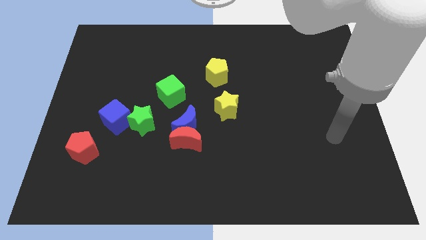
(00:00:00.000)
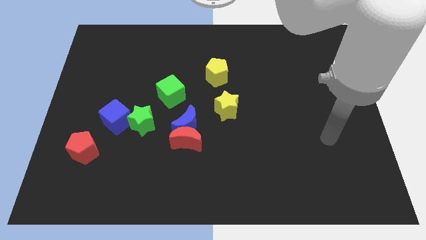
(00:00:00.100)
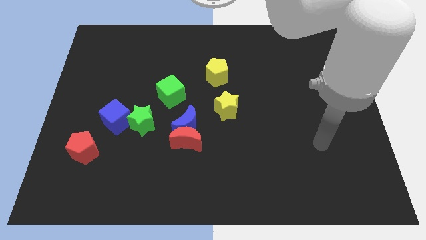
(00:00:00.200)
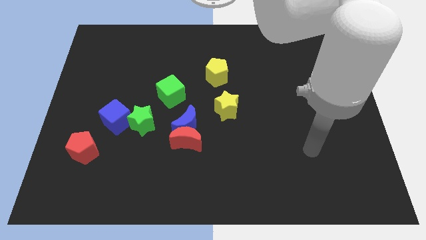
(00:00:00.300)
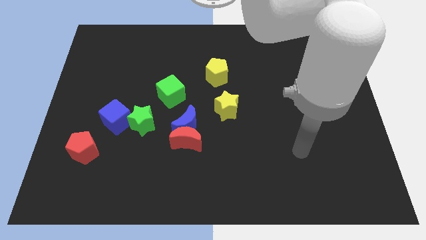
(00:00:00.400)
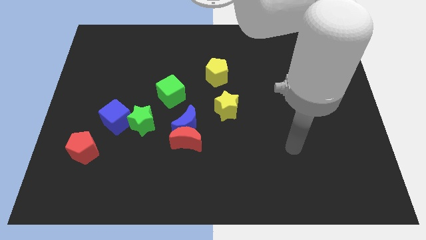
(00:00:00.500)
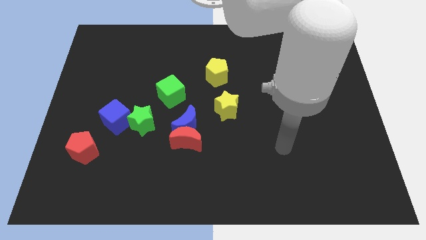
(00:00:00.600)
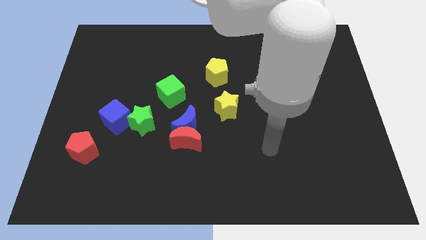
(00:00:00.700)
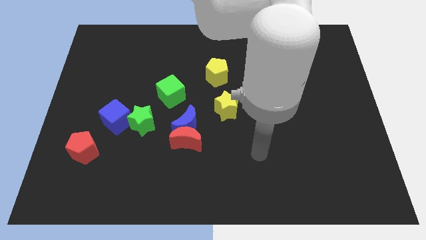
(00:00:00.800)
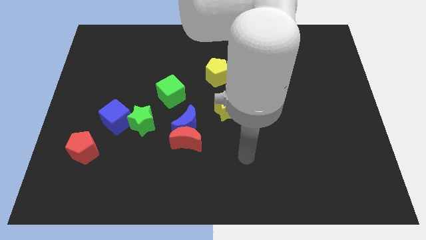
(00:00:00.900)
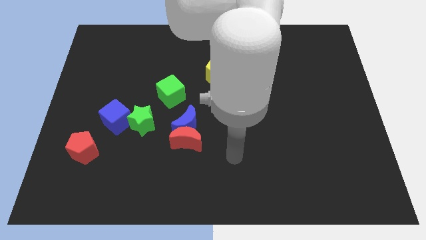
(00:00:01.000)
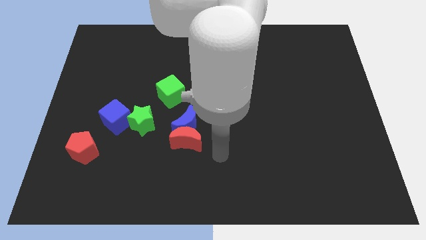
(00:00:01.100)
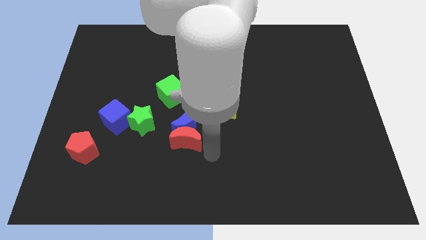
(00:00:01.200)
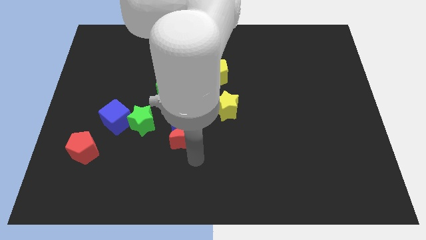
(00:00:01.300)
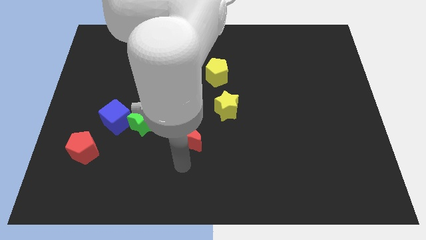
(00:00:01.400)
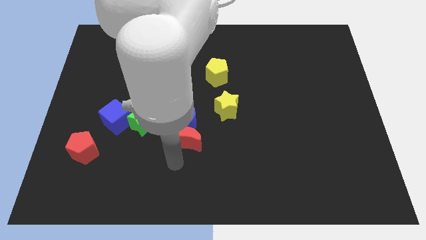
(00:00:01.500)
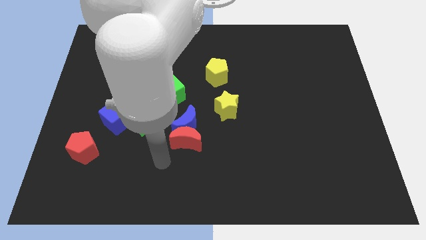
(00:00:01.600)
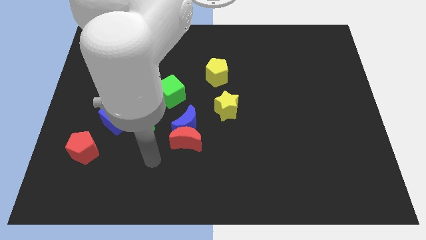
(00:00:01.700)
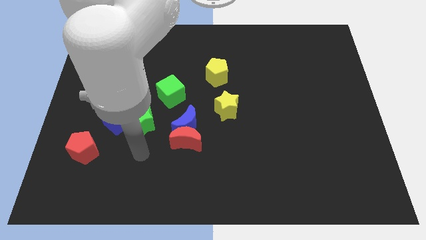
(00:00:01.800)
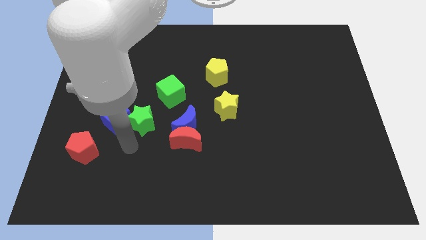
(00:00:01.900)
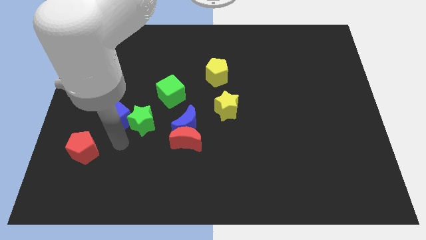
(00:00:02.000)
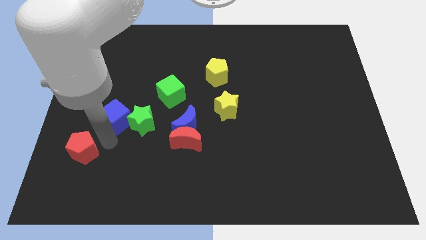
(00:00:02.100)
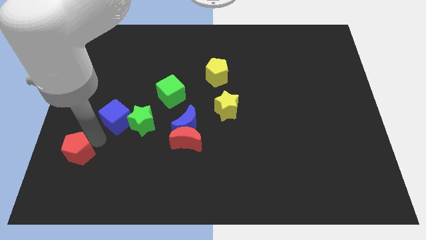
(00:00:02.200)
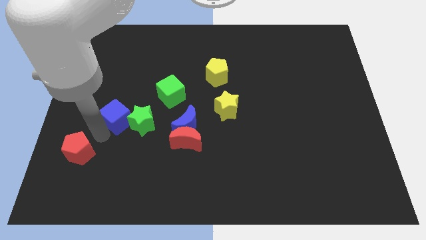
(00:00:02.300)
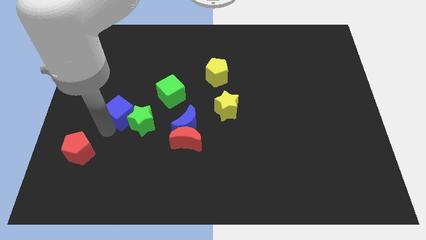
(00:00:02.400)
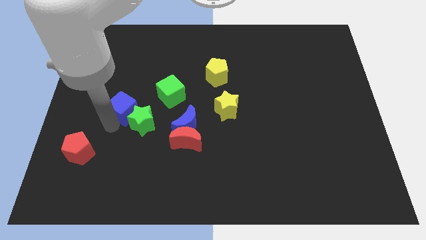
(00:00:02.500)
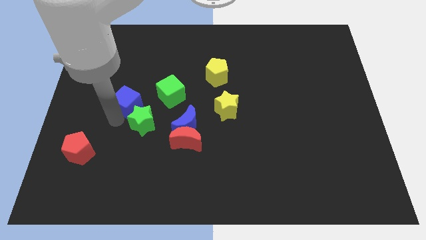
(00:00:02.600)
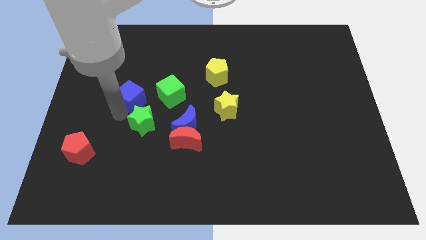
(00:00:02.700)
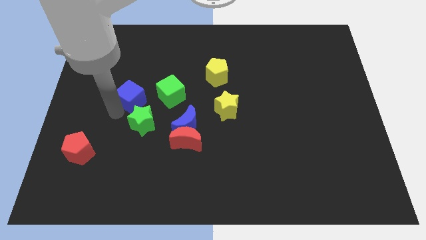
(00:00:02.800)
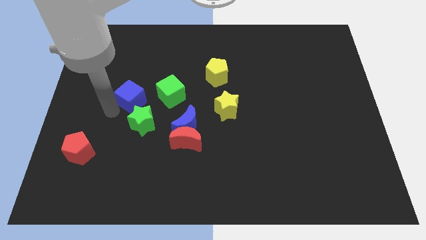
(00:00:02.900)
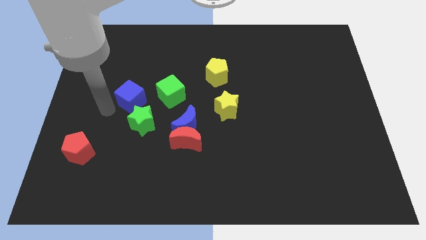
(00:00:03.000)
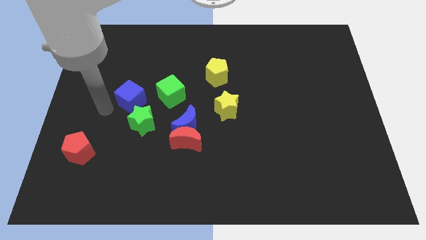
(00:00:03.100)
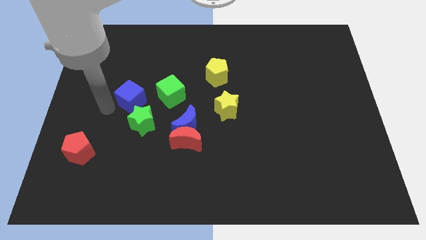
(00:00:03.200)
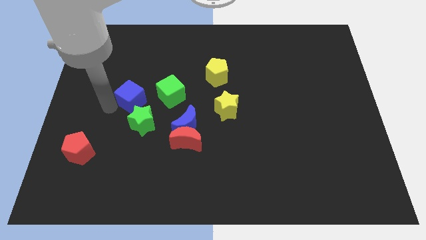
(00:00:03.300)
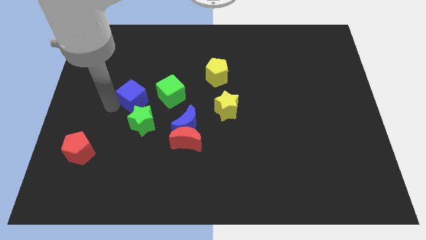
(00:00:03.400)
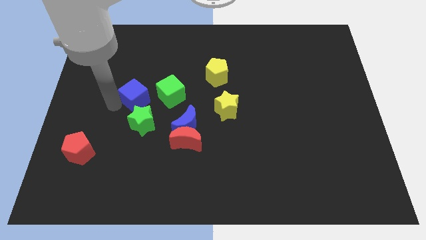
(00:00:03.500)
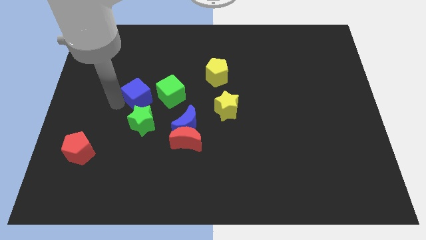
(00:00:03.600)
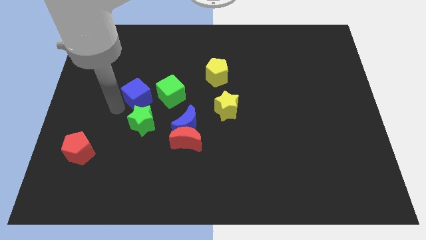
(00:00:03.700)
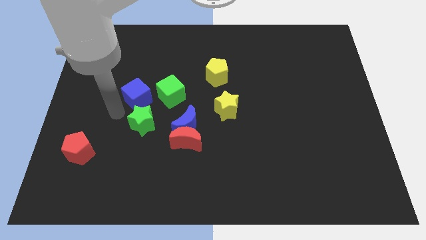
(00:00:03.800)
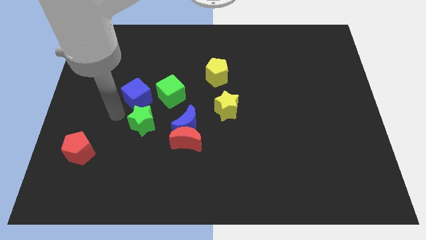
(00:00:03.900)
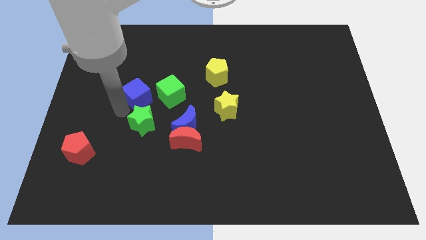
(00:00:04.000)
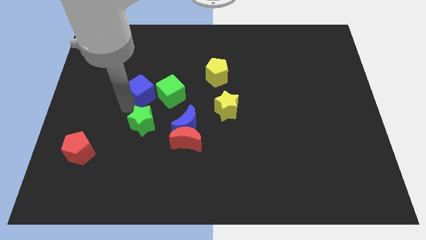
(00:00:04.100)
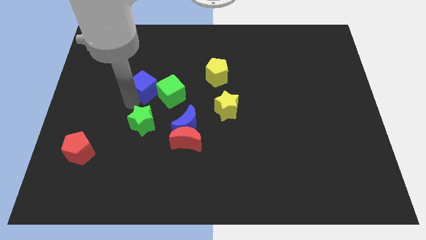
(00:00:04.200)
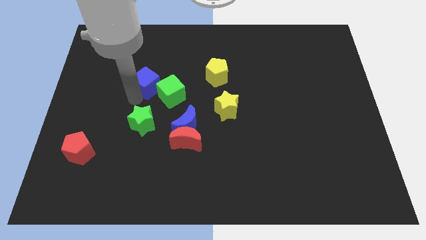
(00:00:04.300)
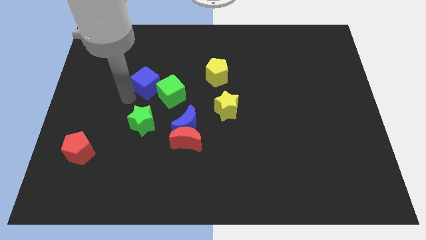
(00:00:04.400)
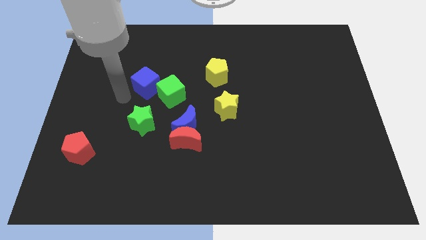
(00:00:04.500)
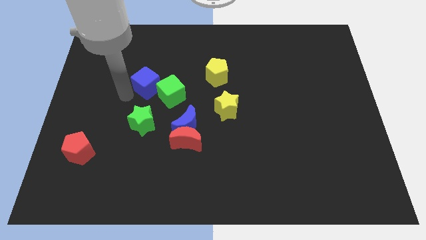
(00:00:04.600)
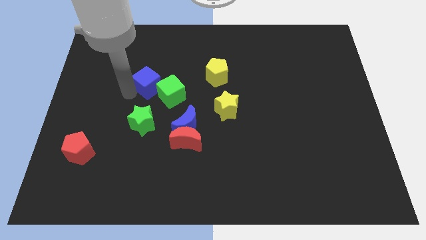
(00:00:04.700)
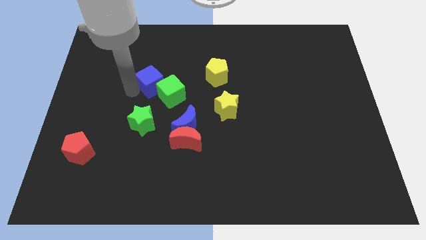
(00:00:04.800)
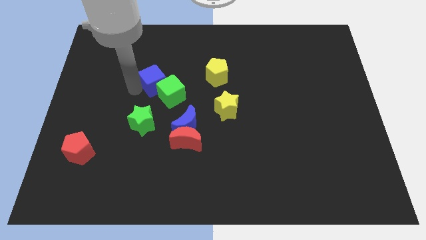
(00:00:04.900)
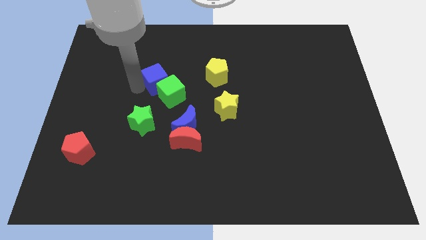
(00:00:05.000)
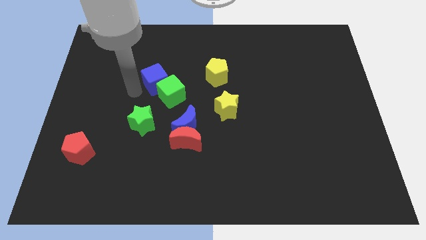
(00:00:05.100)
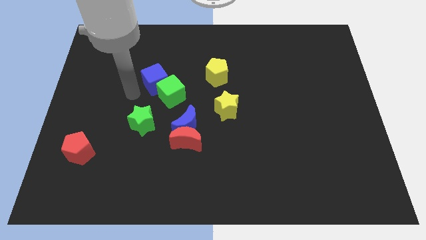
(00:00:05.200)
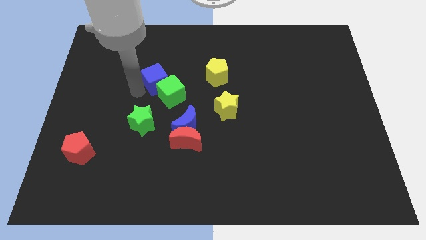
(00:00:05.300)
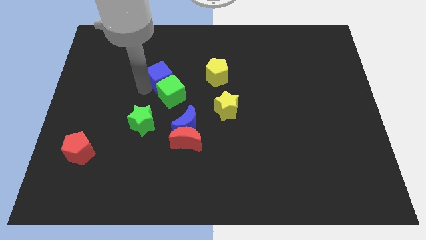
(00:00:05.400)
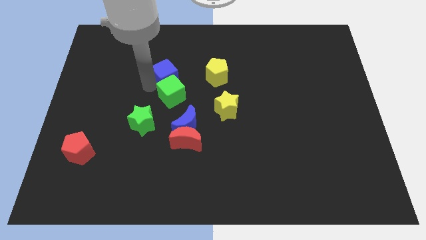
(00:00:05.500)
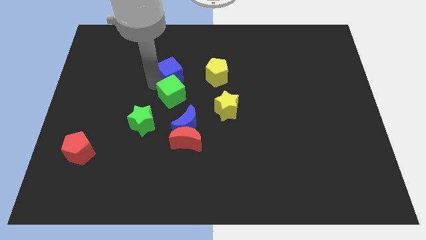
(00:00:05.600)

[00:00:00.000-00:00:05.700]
push the blue cube to the top right of the green cube

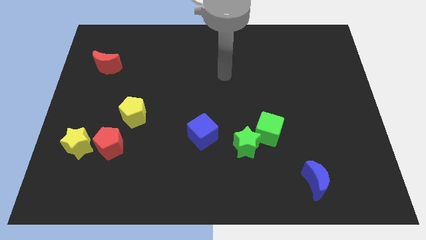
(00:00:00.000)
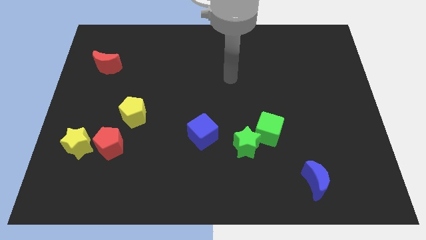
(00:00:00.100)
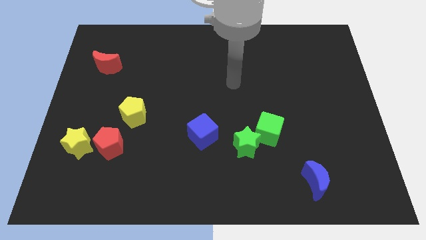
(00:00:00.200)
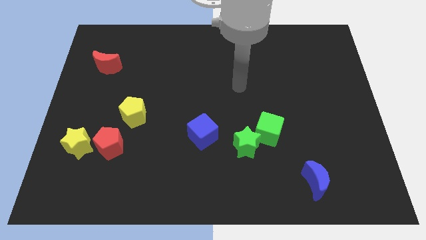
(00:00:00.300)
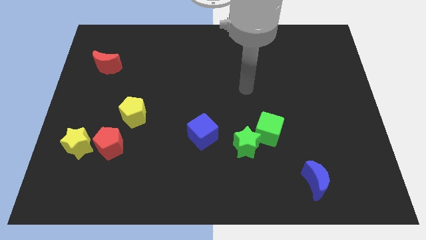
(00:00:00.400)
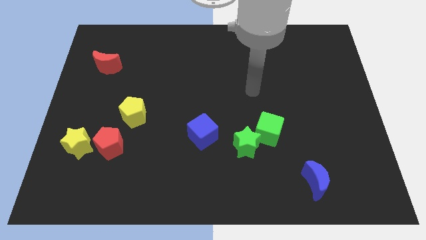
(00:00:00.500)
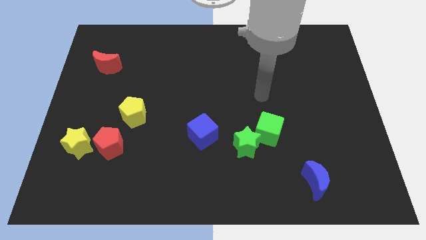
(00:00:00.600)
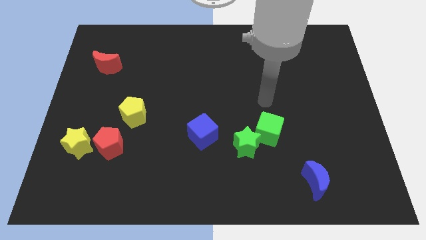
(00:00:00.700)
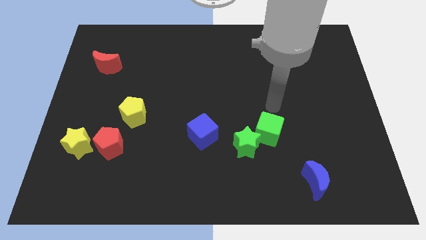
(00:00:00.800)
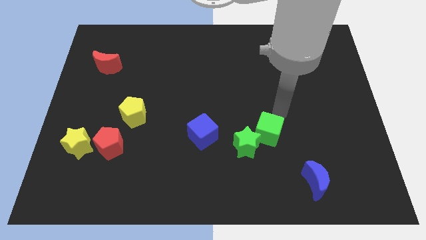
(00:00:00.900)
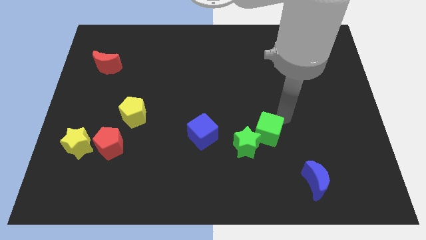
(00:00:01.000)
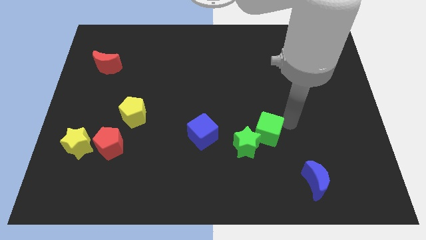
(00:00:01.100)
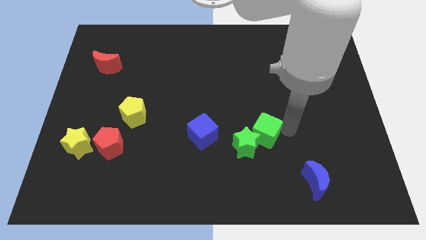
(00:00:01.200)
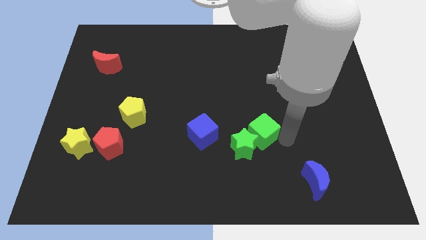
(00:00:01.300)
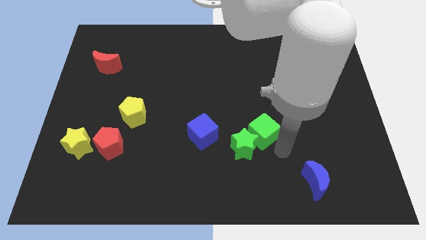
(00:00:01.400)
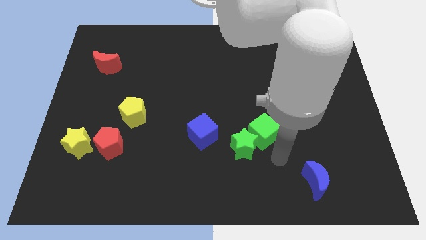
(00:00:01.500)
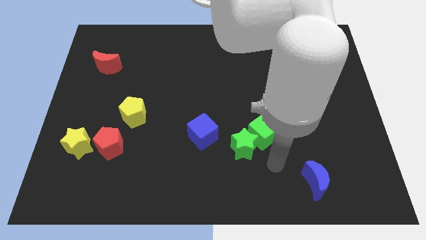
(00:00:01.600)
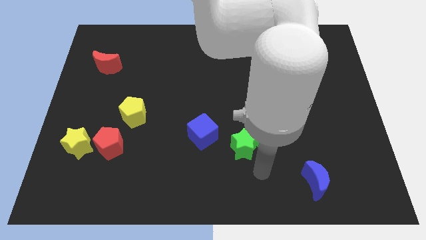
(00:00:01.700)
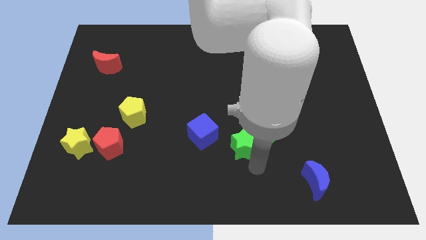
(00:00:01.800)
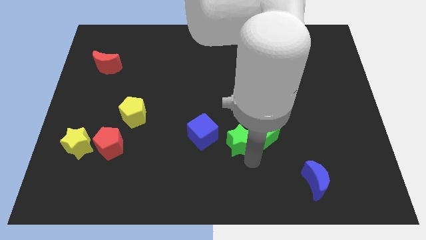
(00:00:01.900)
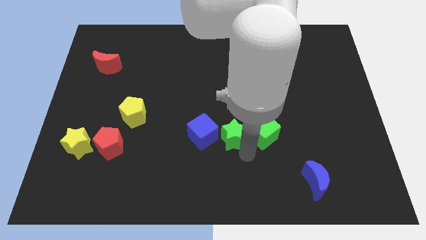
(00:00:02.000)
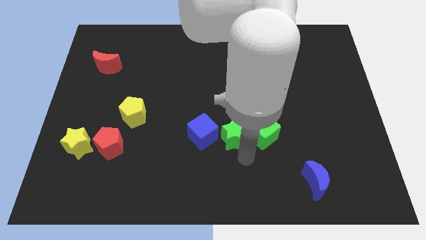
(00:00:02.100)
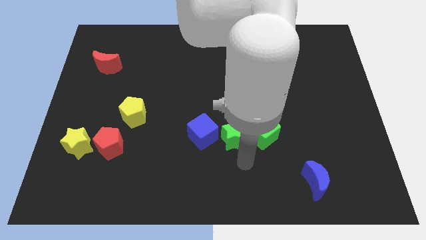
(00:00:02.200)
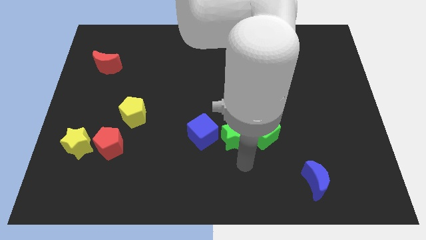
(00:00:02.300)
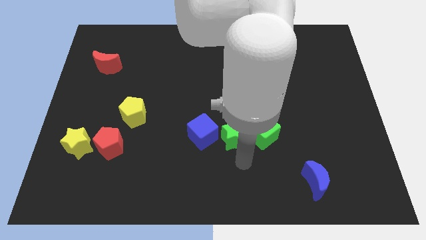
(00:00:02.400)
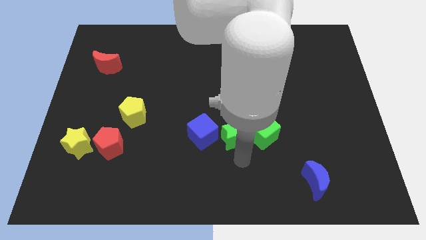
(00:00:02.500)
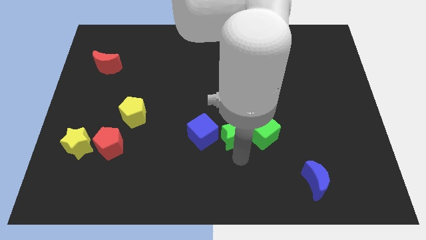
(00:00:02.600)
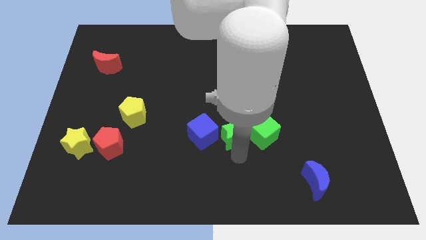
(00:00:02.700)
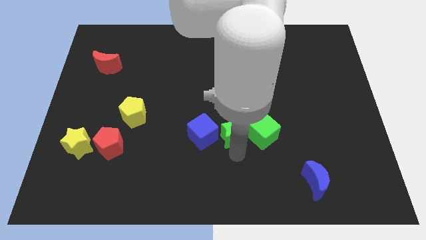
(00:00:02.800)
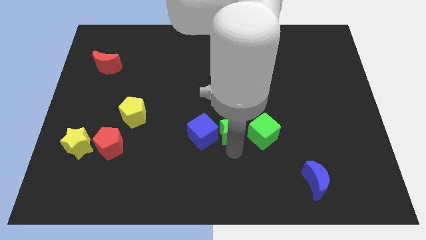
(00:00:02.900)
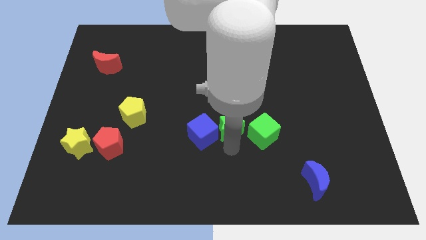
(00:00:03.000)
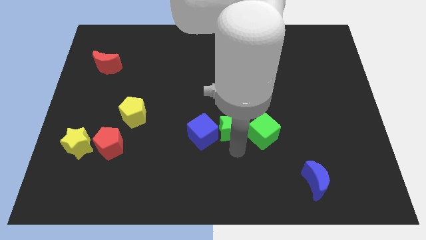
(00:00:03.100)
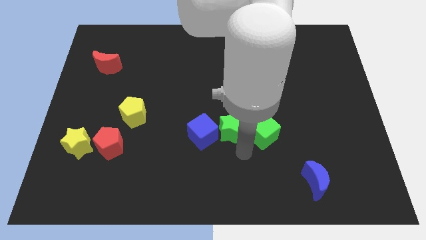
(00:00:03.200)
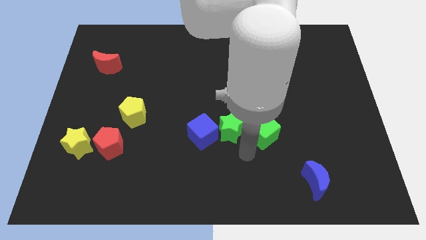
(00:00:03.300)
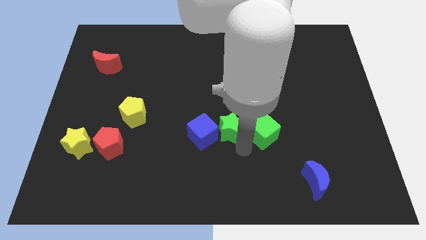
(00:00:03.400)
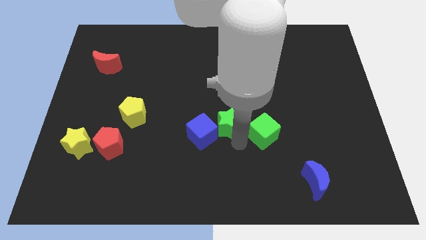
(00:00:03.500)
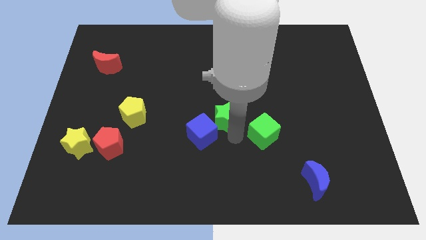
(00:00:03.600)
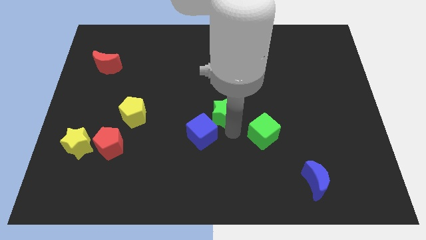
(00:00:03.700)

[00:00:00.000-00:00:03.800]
put the green star to the top side of the blue cube
